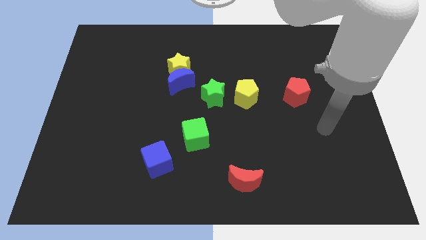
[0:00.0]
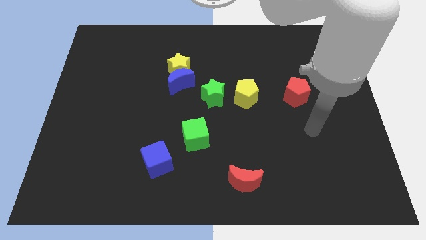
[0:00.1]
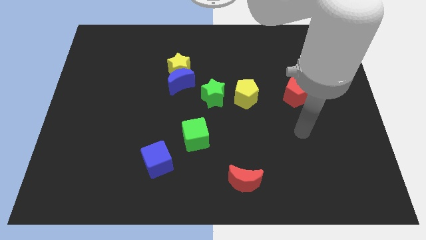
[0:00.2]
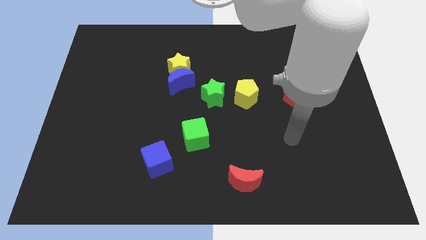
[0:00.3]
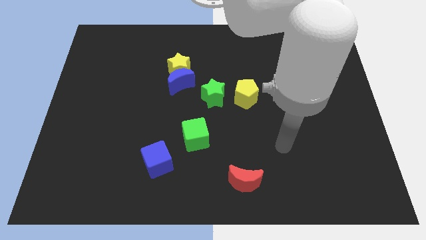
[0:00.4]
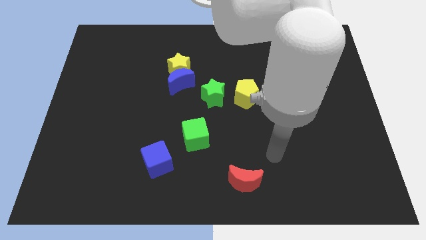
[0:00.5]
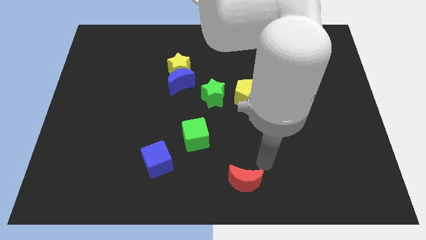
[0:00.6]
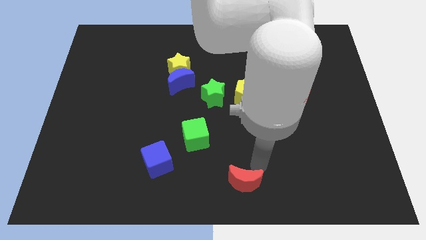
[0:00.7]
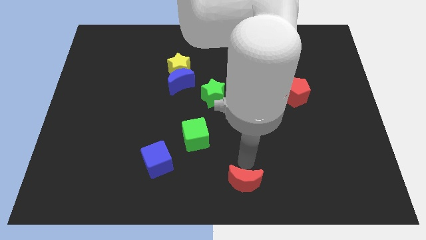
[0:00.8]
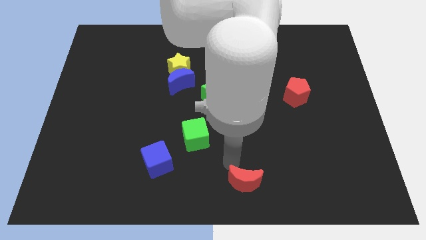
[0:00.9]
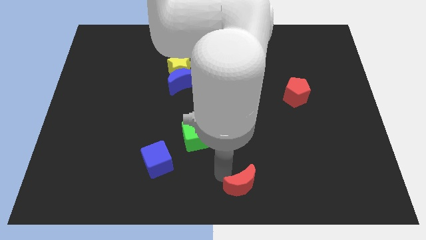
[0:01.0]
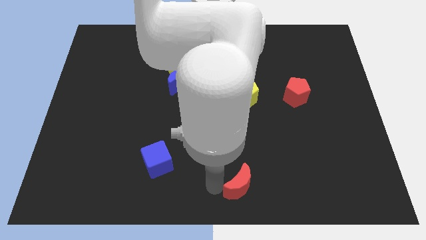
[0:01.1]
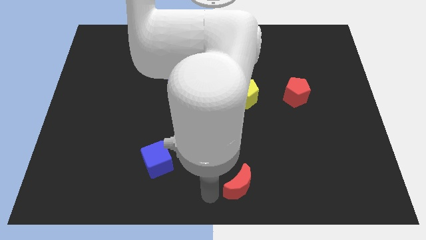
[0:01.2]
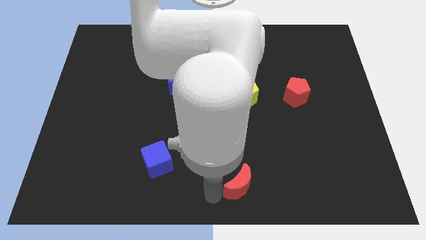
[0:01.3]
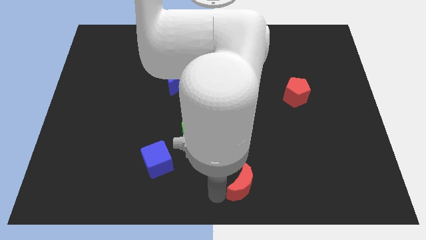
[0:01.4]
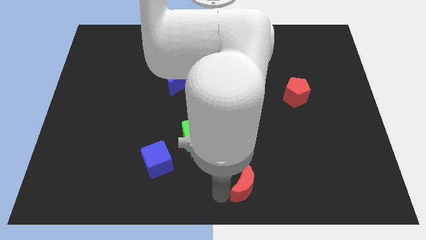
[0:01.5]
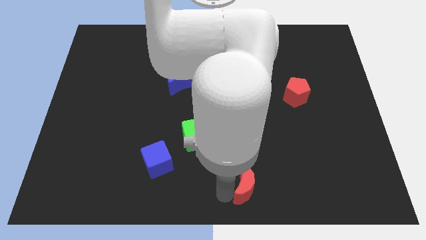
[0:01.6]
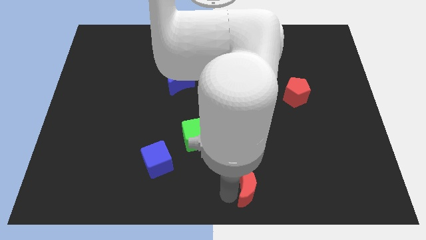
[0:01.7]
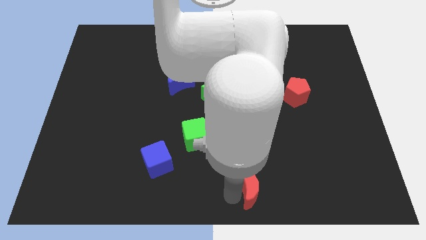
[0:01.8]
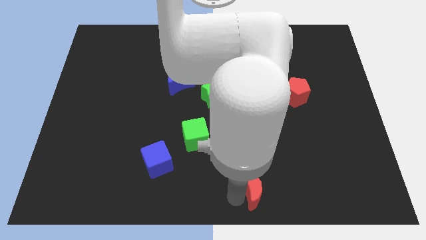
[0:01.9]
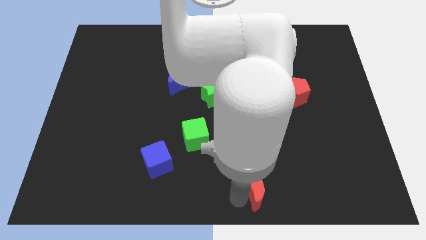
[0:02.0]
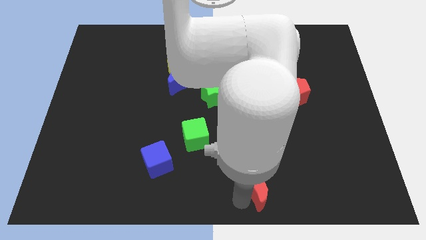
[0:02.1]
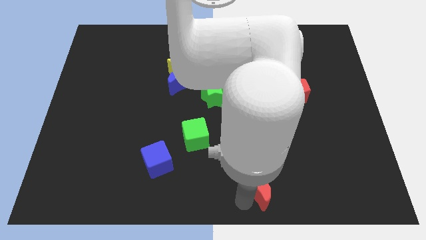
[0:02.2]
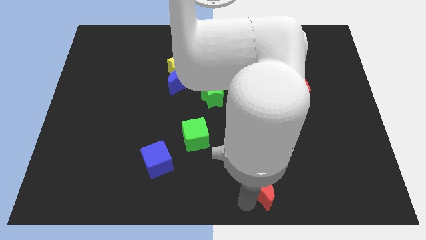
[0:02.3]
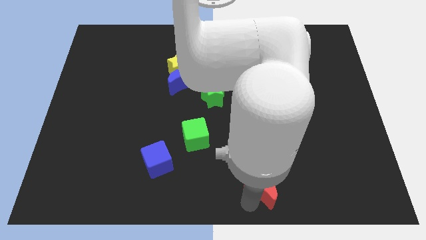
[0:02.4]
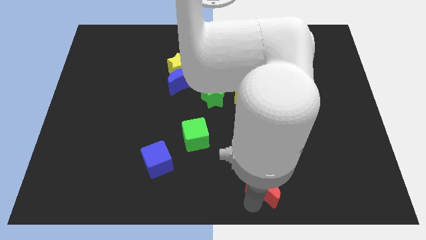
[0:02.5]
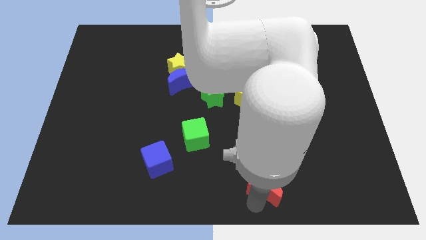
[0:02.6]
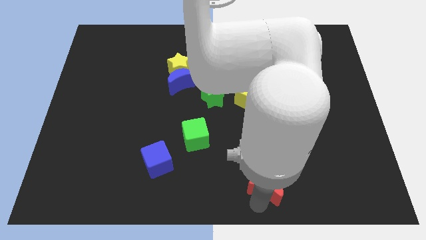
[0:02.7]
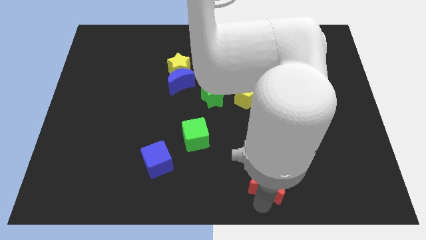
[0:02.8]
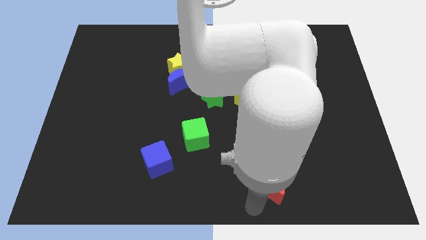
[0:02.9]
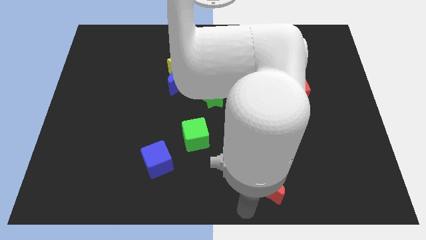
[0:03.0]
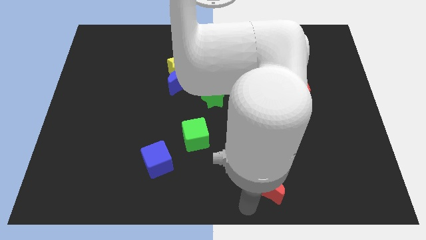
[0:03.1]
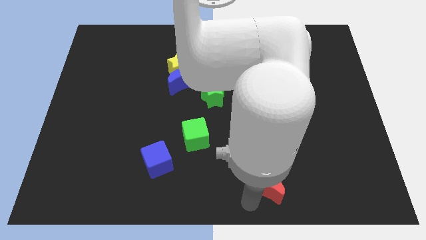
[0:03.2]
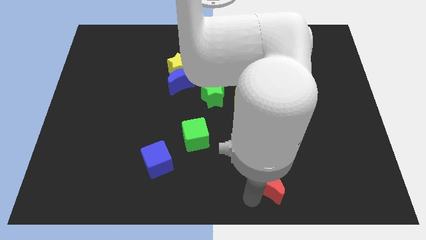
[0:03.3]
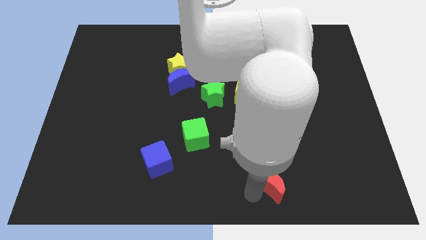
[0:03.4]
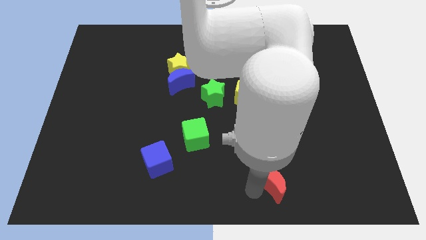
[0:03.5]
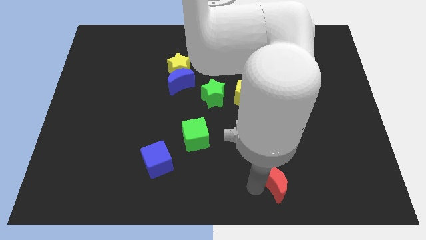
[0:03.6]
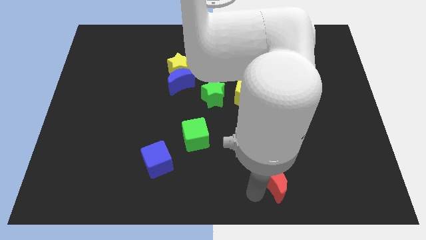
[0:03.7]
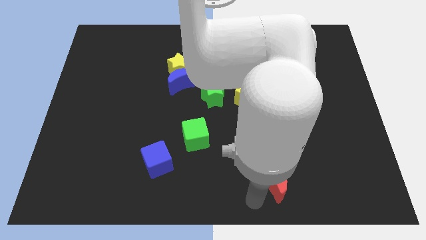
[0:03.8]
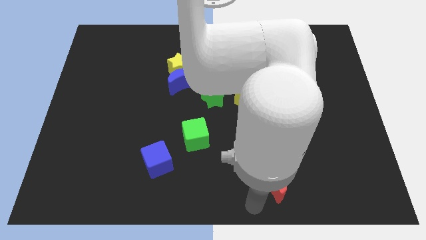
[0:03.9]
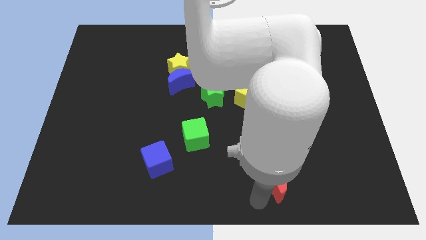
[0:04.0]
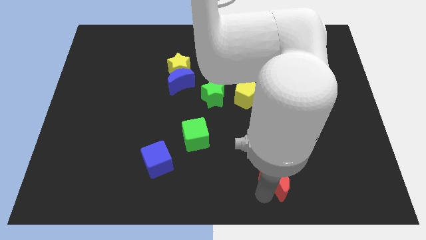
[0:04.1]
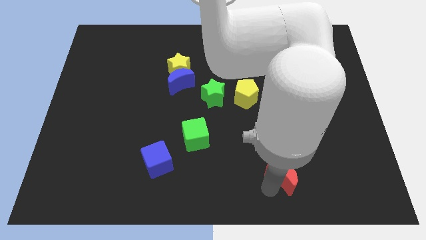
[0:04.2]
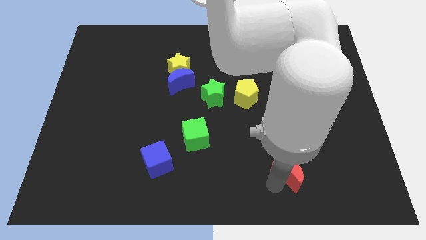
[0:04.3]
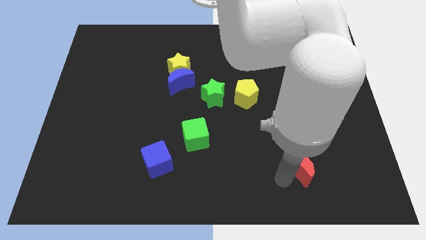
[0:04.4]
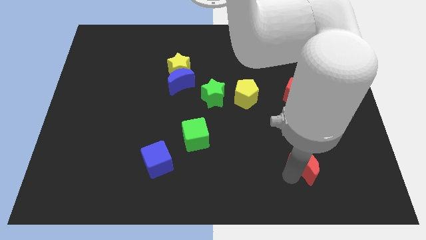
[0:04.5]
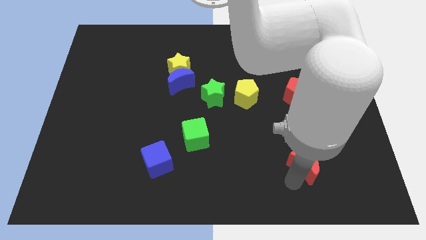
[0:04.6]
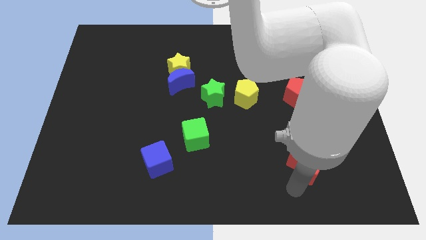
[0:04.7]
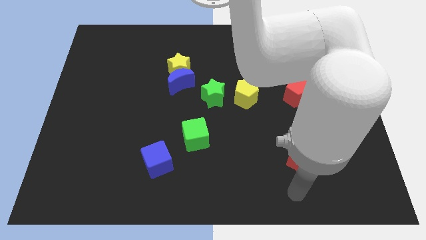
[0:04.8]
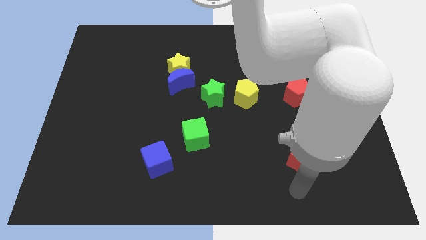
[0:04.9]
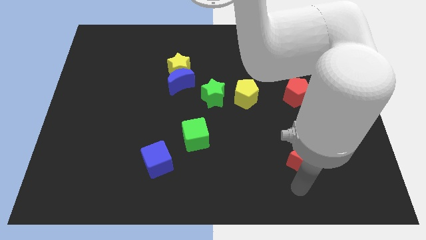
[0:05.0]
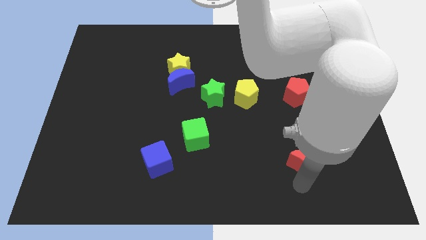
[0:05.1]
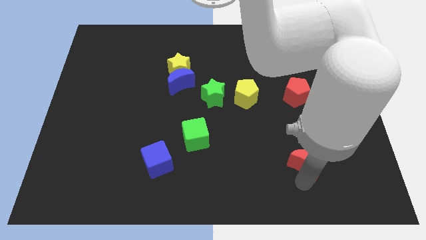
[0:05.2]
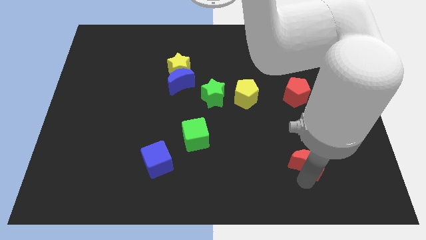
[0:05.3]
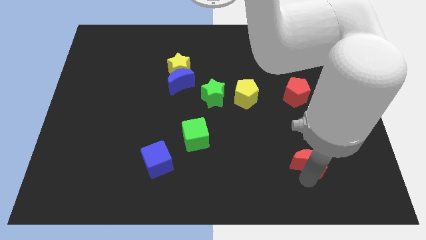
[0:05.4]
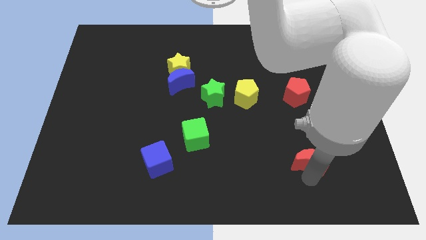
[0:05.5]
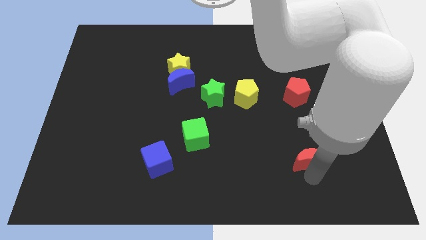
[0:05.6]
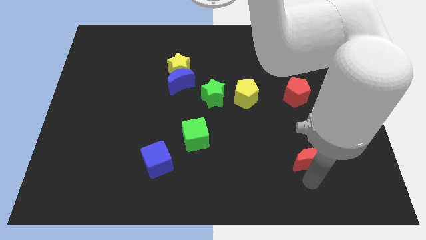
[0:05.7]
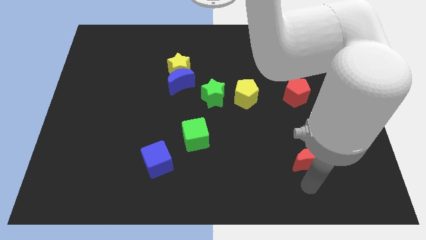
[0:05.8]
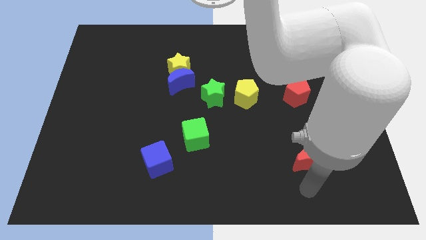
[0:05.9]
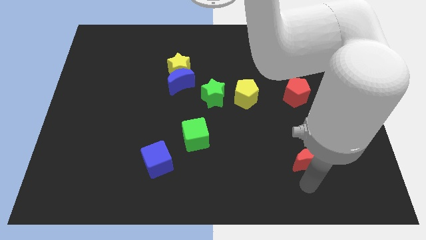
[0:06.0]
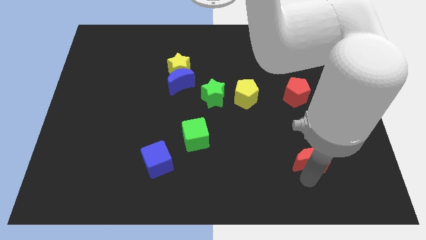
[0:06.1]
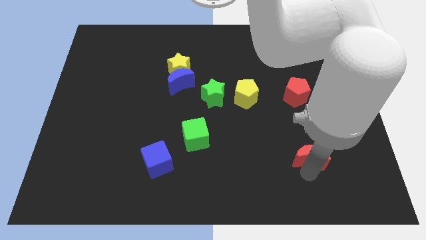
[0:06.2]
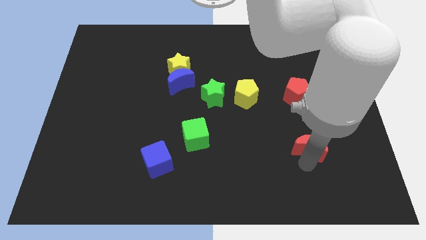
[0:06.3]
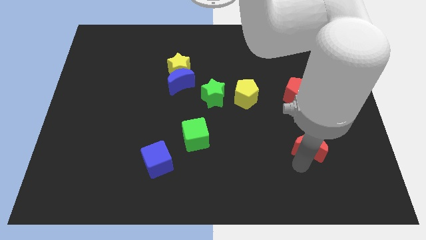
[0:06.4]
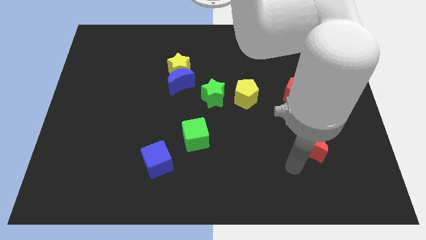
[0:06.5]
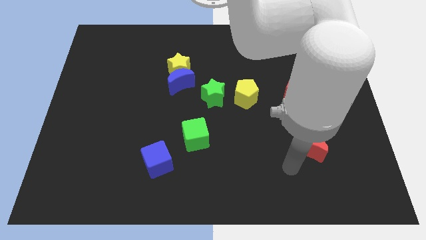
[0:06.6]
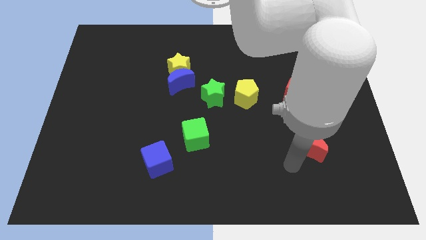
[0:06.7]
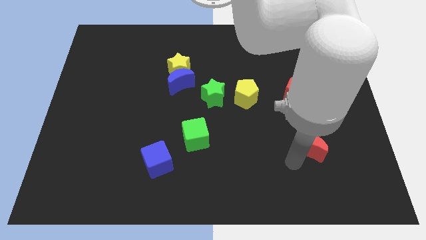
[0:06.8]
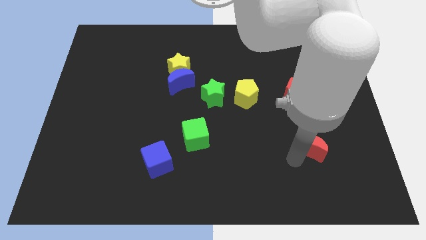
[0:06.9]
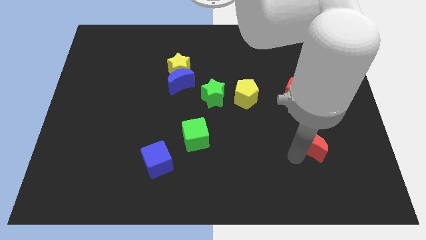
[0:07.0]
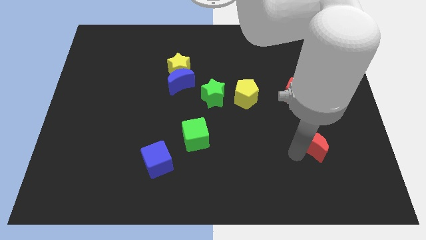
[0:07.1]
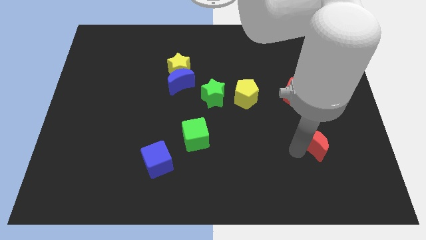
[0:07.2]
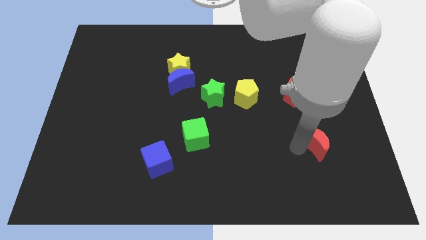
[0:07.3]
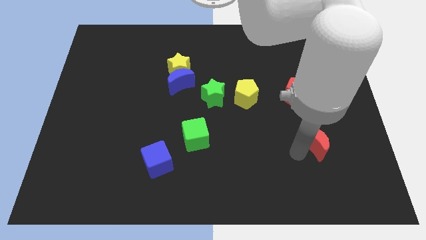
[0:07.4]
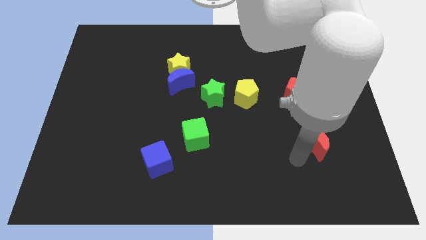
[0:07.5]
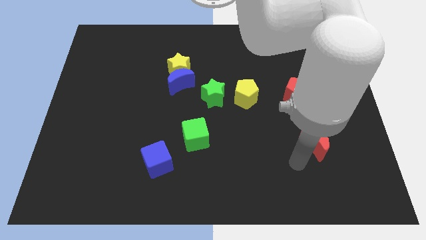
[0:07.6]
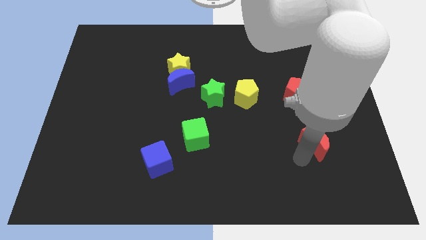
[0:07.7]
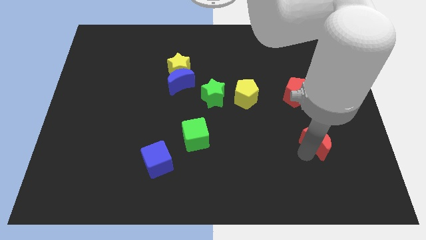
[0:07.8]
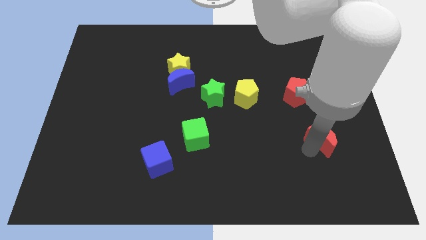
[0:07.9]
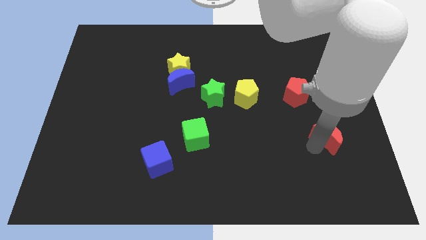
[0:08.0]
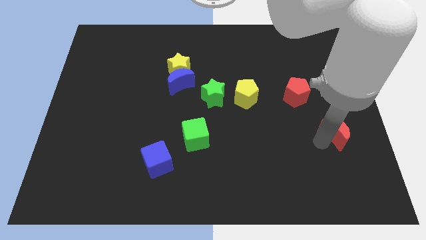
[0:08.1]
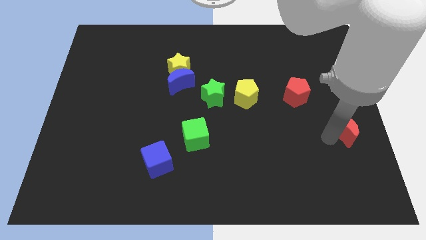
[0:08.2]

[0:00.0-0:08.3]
move the red moon to the center right
